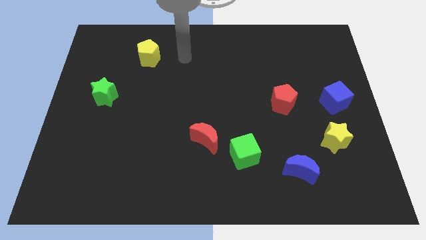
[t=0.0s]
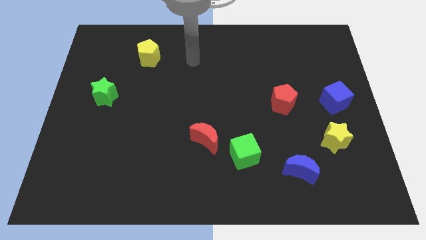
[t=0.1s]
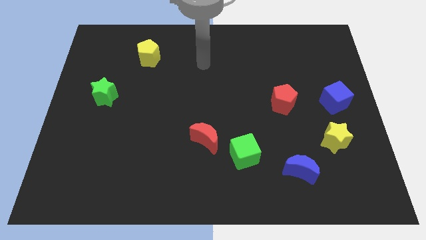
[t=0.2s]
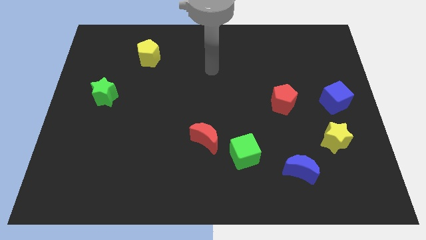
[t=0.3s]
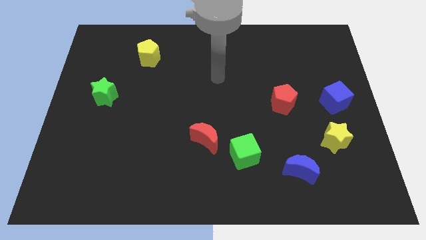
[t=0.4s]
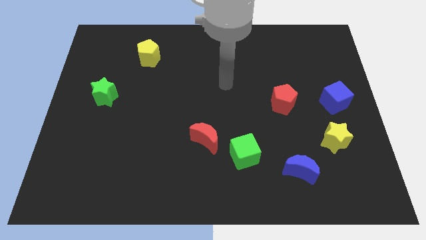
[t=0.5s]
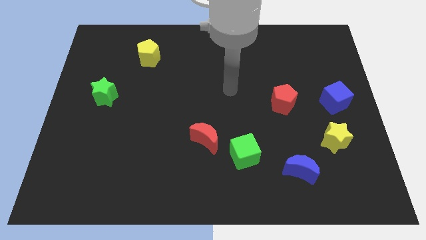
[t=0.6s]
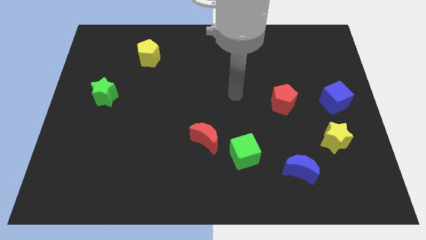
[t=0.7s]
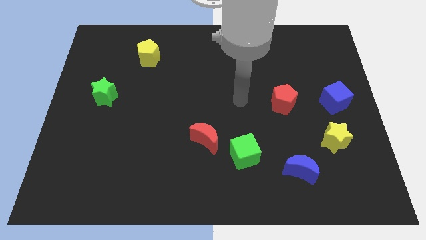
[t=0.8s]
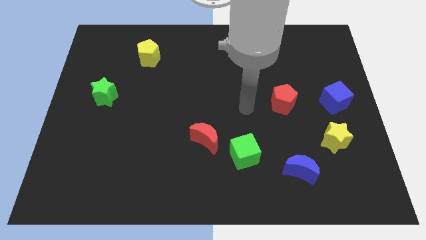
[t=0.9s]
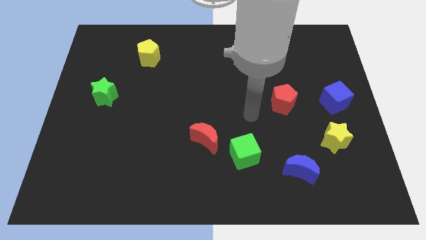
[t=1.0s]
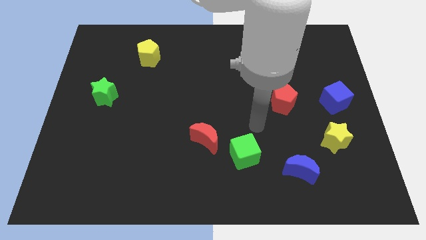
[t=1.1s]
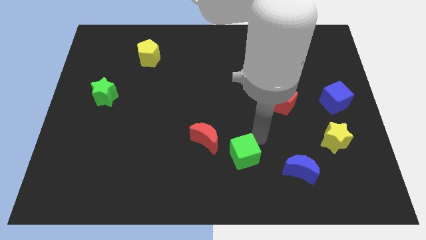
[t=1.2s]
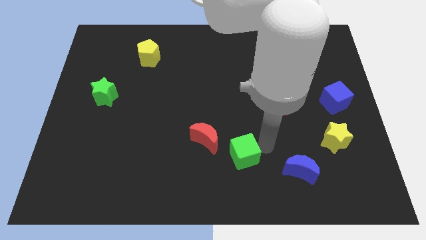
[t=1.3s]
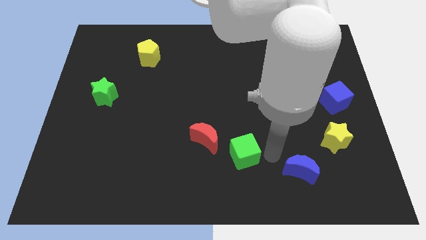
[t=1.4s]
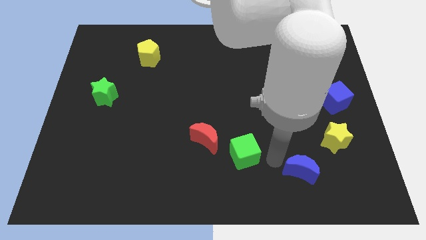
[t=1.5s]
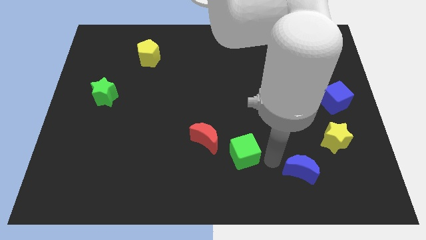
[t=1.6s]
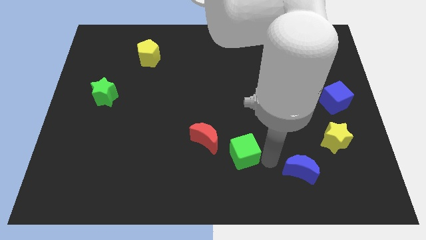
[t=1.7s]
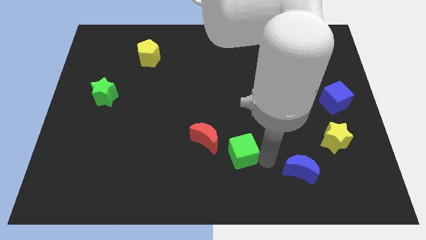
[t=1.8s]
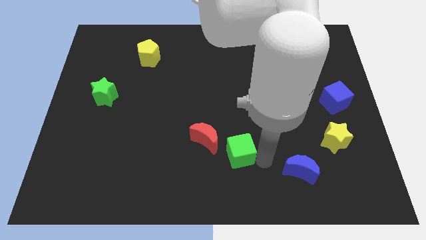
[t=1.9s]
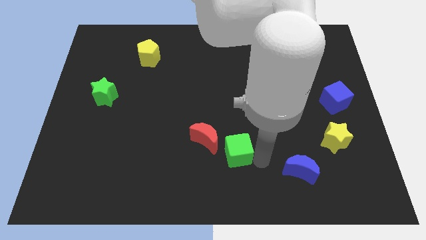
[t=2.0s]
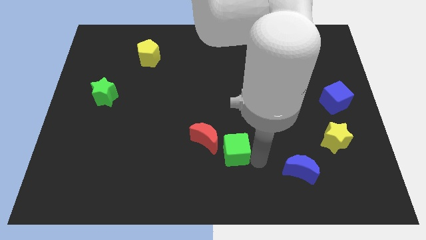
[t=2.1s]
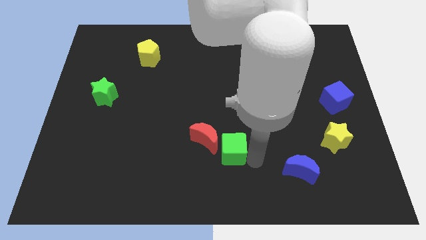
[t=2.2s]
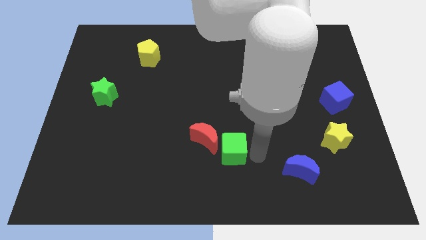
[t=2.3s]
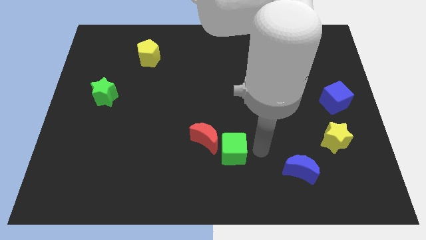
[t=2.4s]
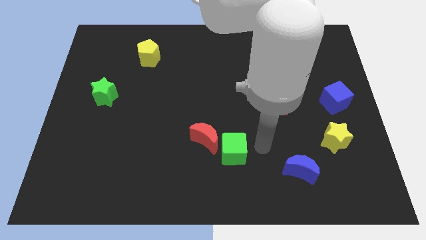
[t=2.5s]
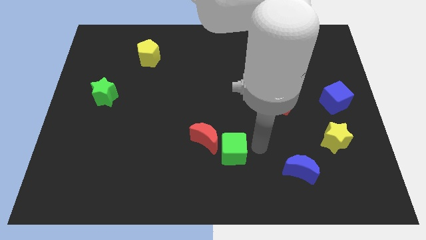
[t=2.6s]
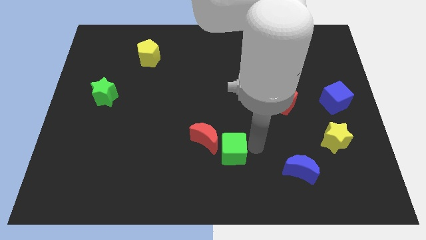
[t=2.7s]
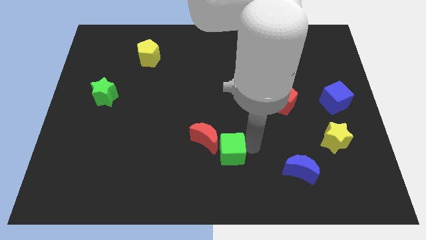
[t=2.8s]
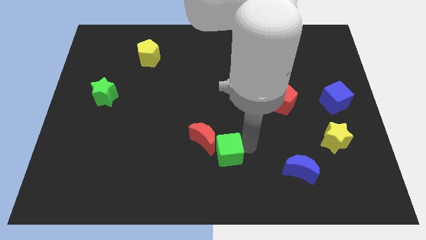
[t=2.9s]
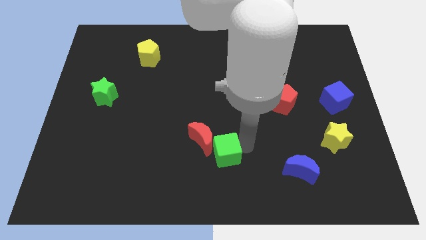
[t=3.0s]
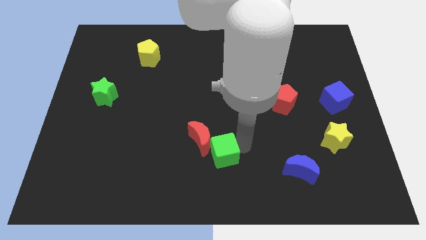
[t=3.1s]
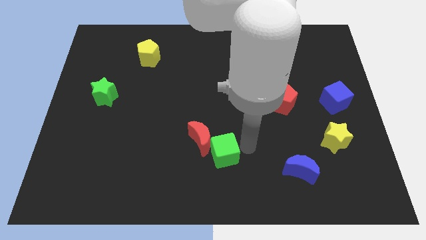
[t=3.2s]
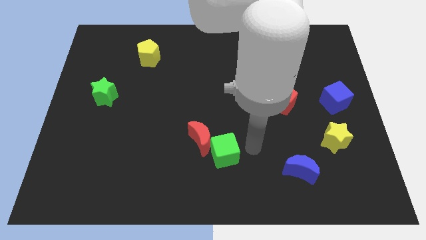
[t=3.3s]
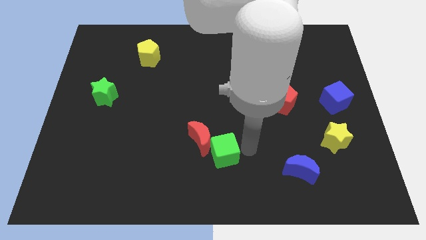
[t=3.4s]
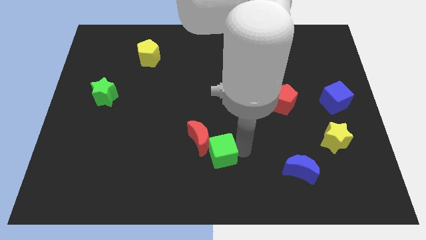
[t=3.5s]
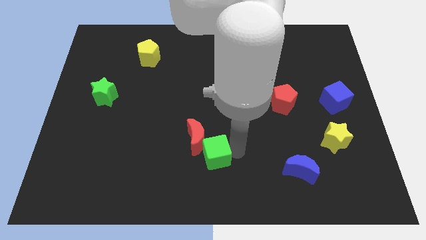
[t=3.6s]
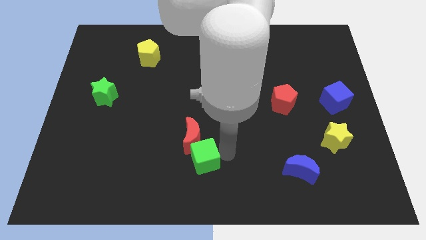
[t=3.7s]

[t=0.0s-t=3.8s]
push the green cube to the left slightly

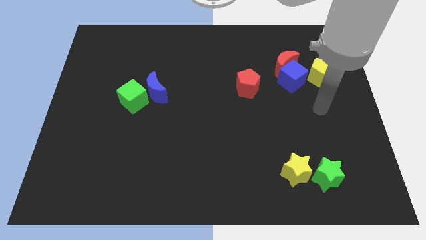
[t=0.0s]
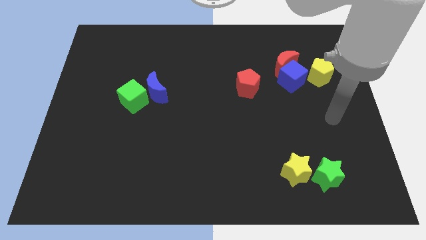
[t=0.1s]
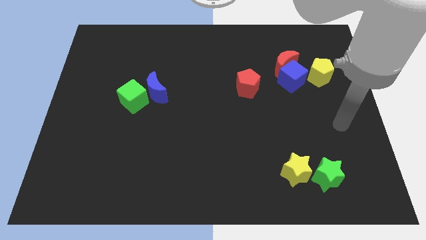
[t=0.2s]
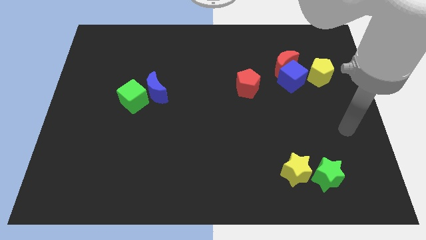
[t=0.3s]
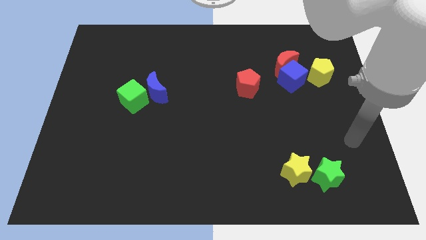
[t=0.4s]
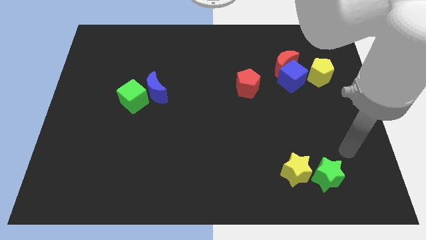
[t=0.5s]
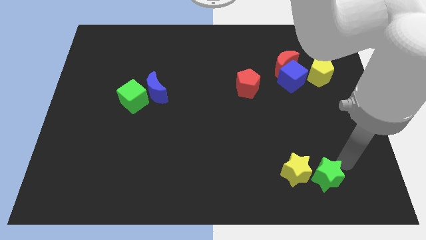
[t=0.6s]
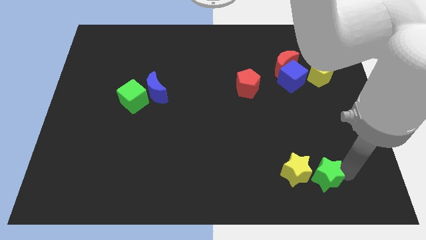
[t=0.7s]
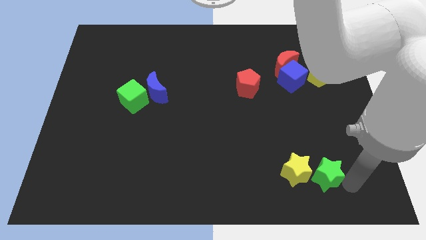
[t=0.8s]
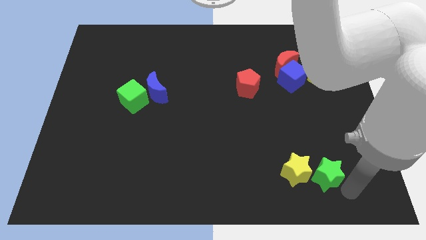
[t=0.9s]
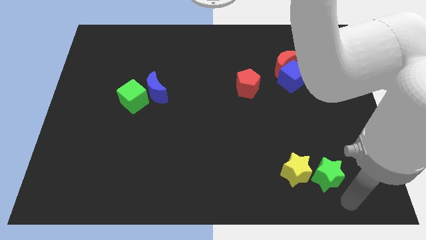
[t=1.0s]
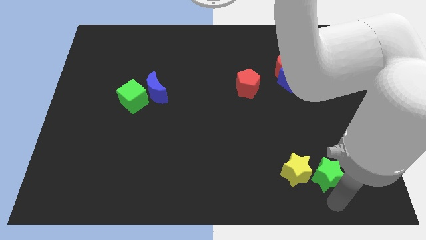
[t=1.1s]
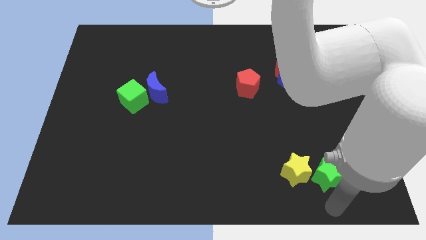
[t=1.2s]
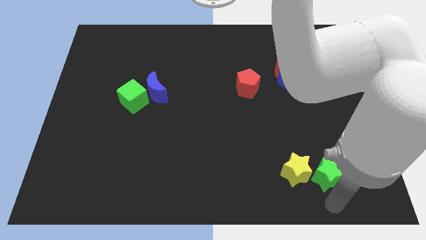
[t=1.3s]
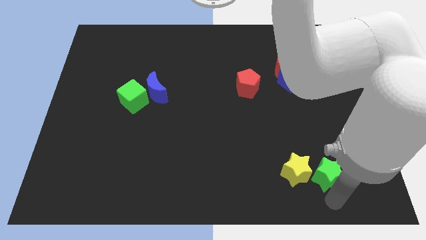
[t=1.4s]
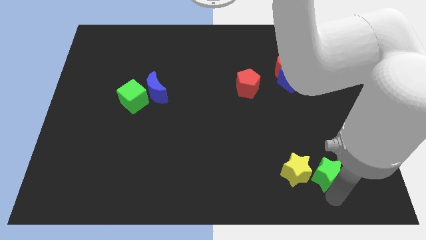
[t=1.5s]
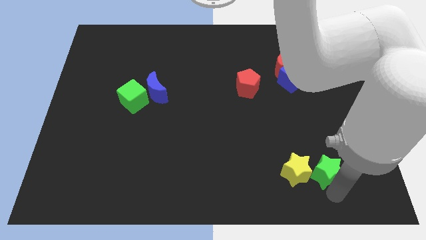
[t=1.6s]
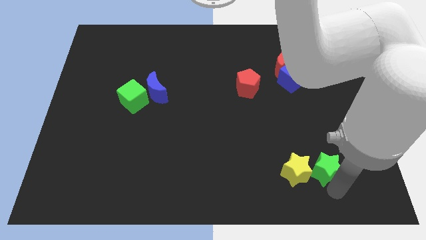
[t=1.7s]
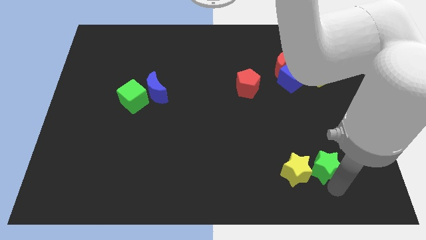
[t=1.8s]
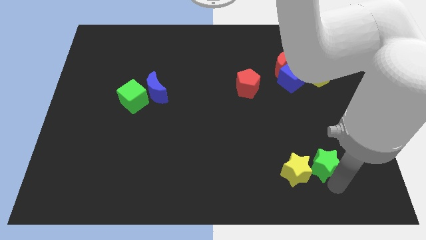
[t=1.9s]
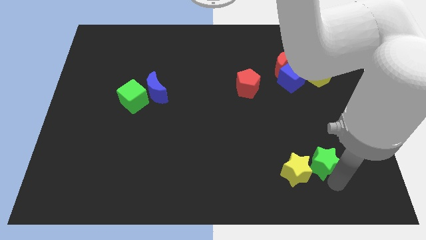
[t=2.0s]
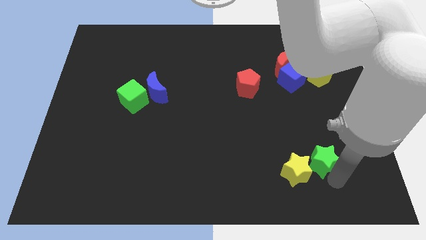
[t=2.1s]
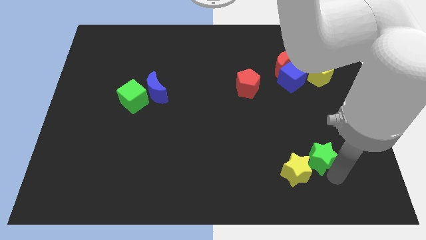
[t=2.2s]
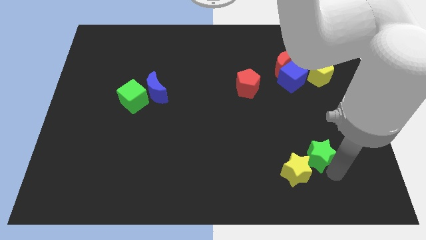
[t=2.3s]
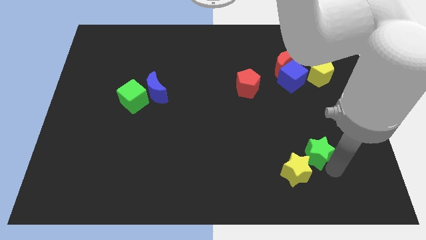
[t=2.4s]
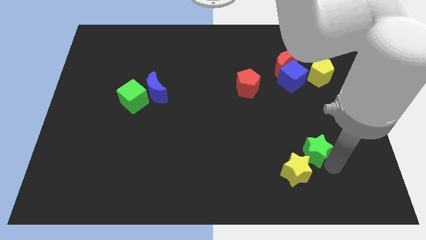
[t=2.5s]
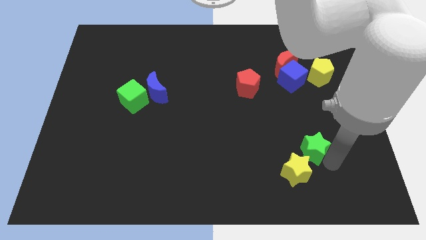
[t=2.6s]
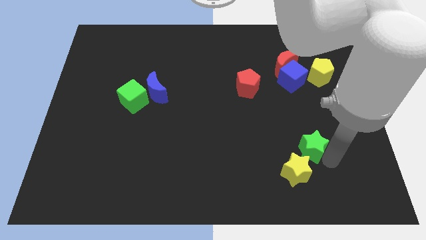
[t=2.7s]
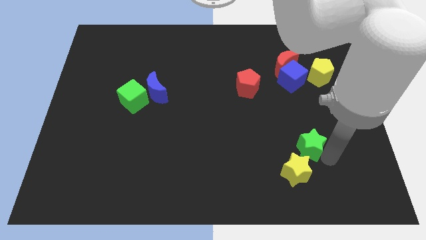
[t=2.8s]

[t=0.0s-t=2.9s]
push the green star slightly up

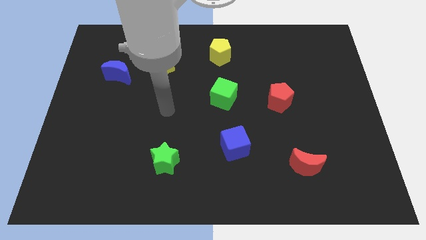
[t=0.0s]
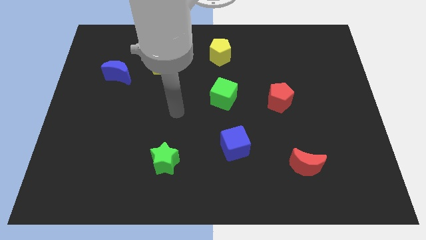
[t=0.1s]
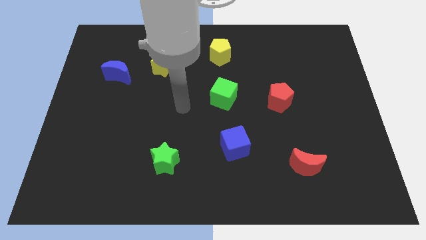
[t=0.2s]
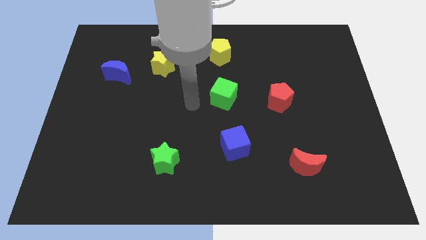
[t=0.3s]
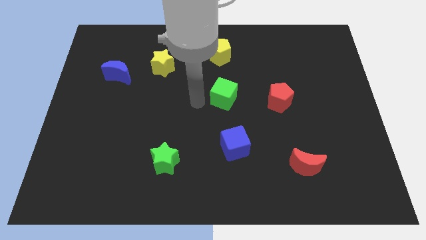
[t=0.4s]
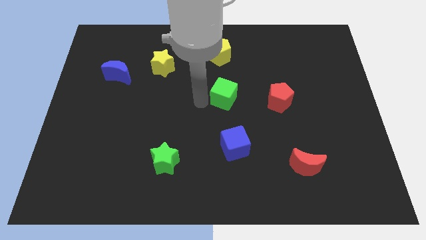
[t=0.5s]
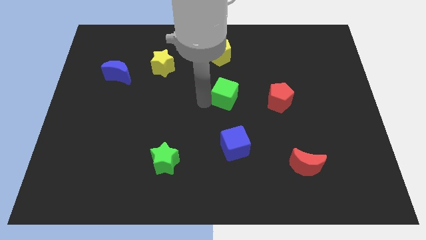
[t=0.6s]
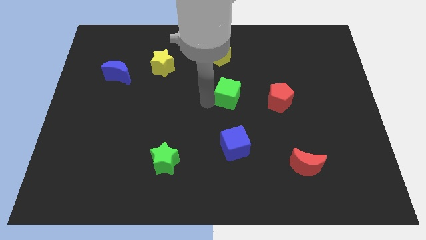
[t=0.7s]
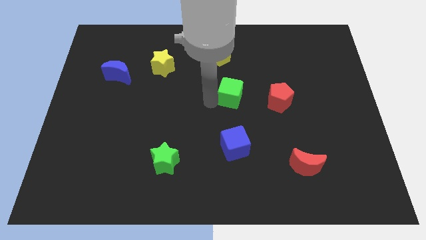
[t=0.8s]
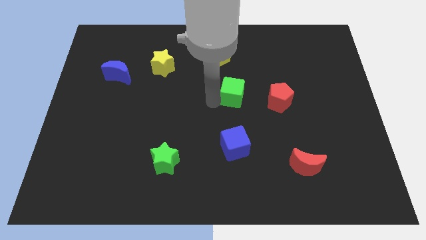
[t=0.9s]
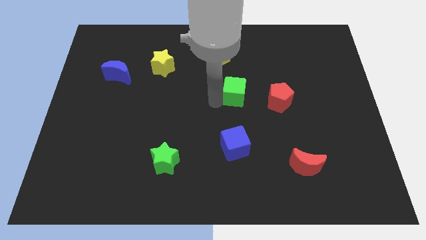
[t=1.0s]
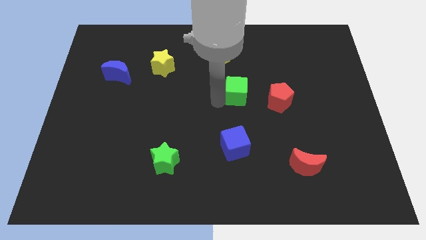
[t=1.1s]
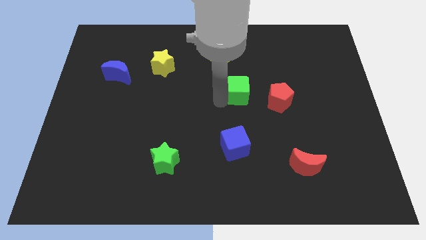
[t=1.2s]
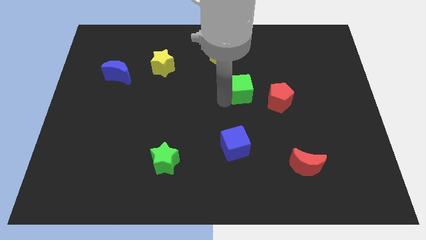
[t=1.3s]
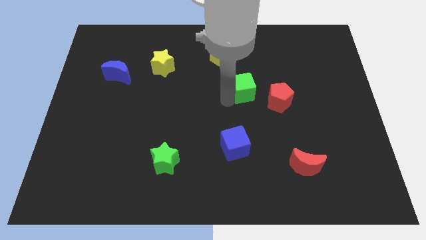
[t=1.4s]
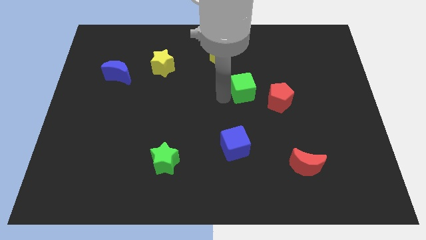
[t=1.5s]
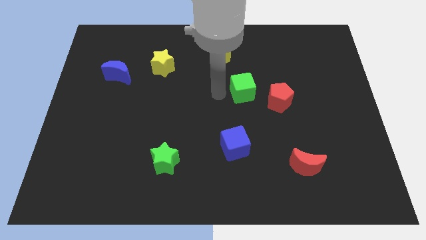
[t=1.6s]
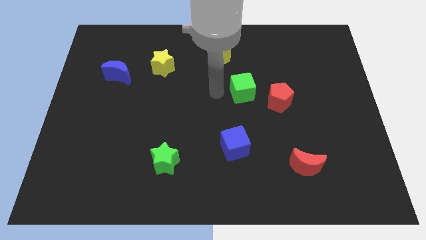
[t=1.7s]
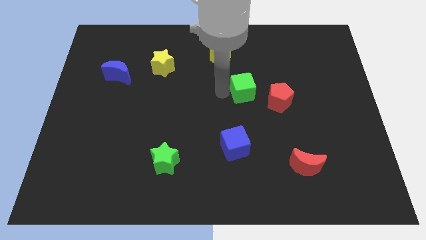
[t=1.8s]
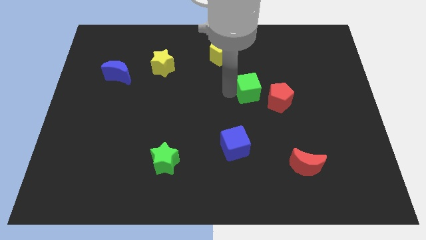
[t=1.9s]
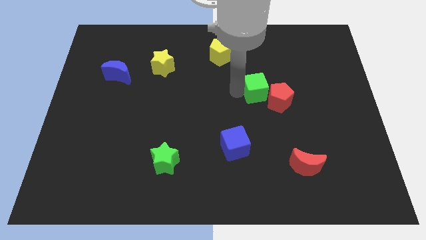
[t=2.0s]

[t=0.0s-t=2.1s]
push the green cube right a little bit
